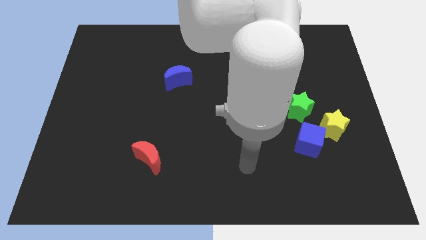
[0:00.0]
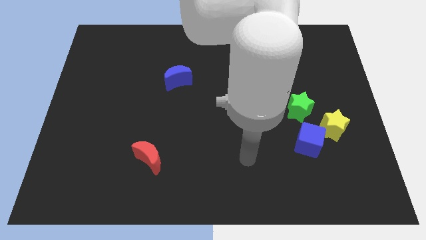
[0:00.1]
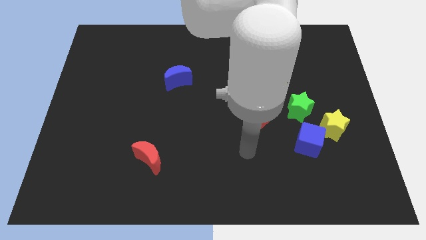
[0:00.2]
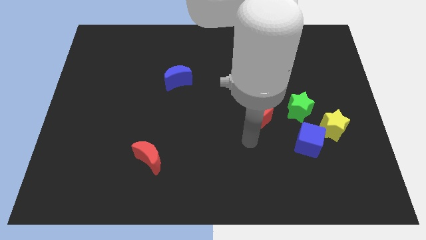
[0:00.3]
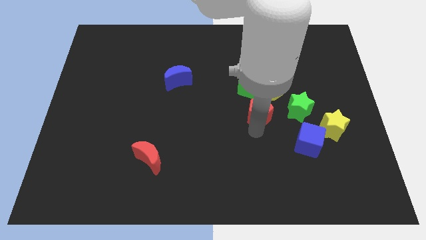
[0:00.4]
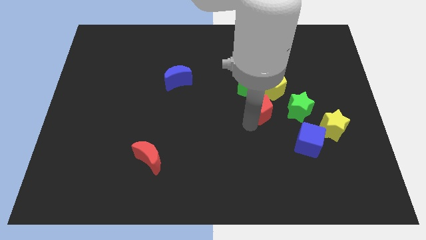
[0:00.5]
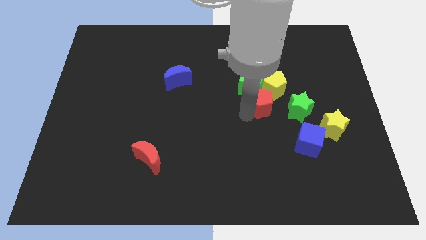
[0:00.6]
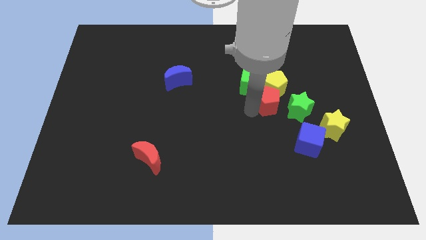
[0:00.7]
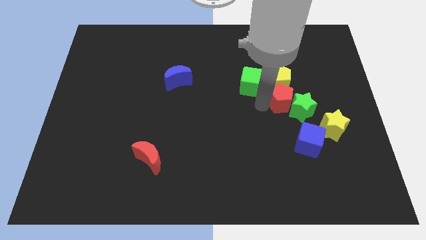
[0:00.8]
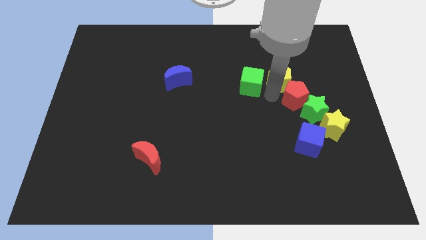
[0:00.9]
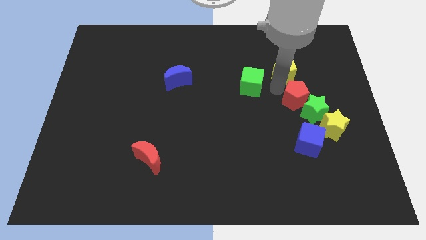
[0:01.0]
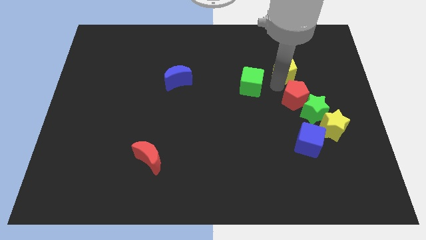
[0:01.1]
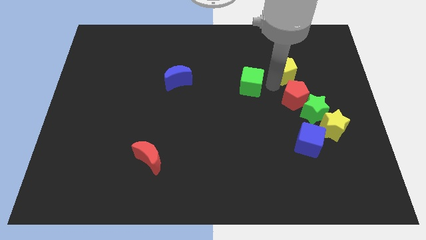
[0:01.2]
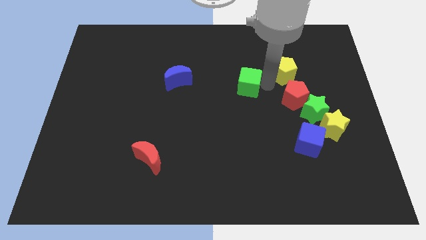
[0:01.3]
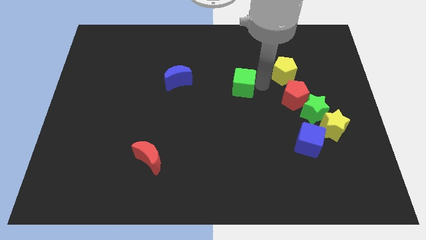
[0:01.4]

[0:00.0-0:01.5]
pull the green cube apart from the yellow pentagon and red pentagon

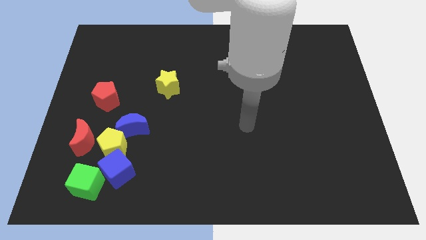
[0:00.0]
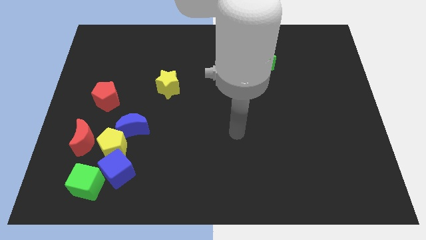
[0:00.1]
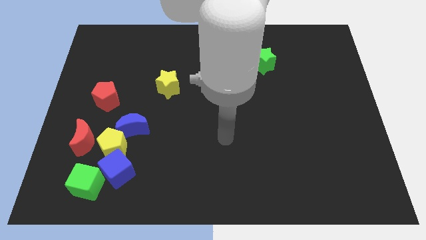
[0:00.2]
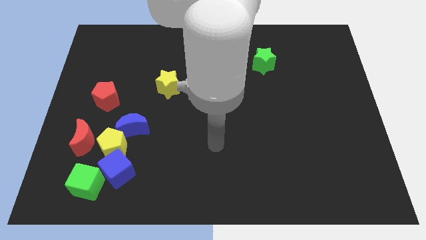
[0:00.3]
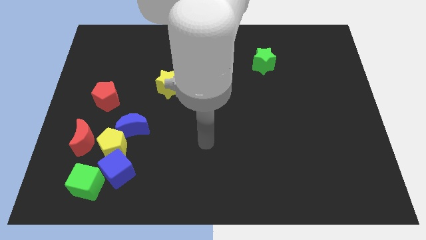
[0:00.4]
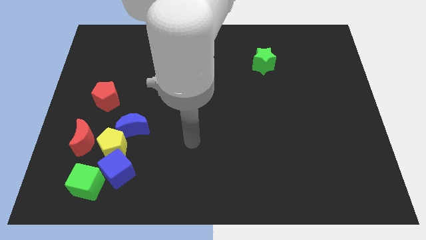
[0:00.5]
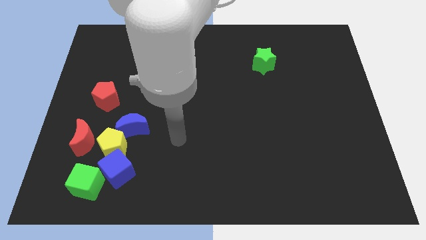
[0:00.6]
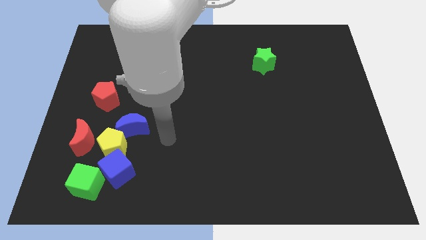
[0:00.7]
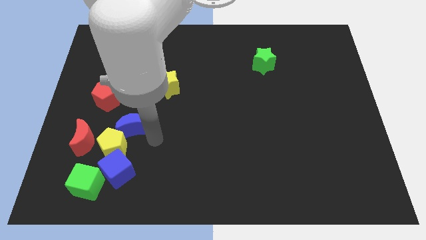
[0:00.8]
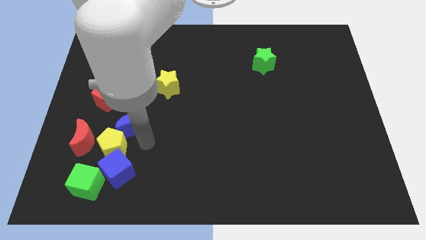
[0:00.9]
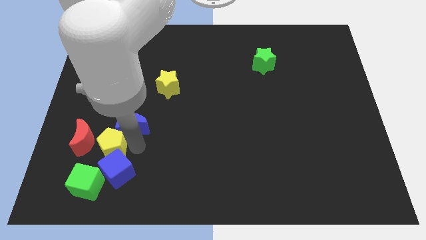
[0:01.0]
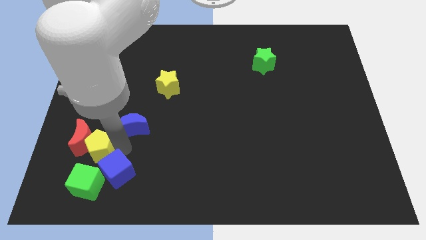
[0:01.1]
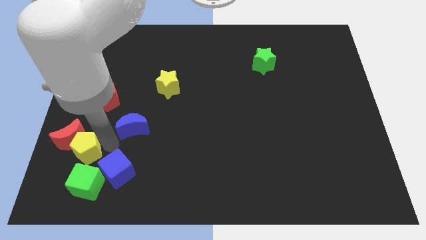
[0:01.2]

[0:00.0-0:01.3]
move the blue moon away from the yellow pentagon

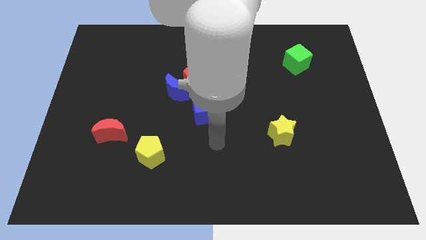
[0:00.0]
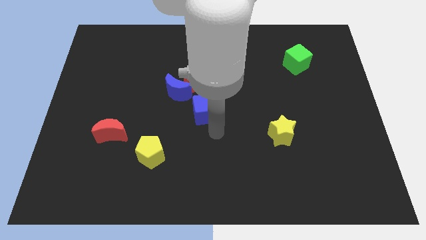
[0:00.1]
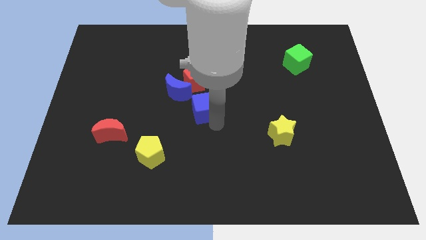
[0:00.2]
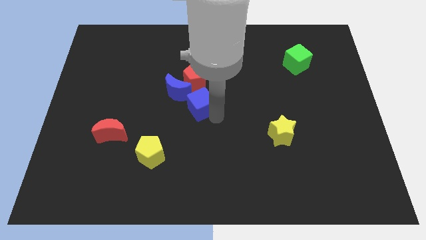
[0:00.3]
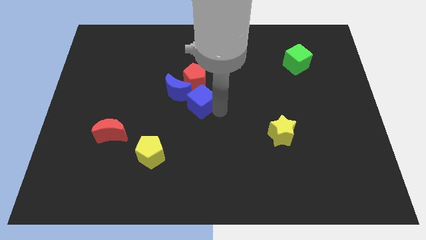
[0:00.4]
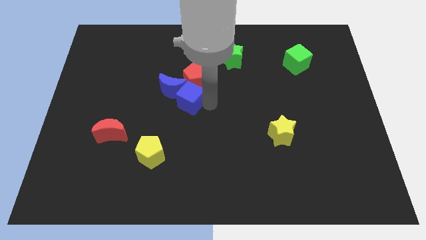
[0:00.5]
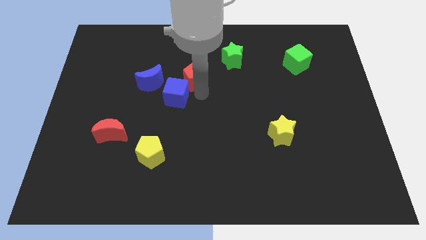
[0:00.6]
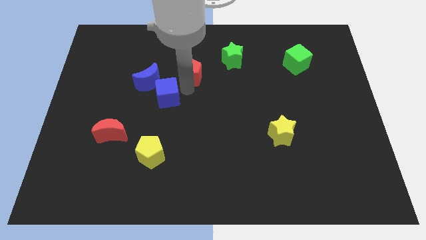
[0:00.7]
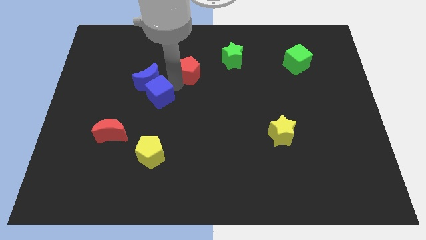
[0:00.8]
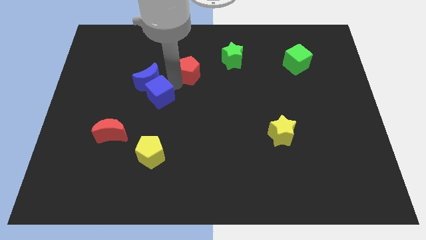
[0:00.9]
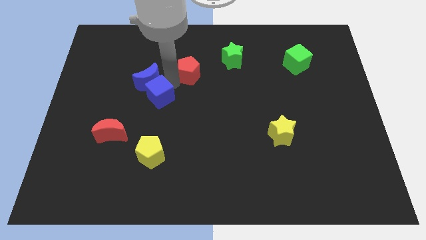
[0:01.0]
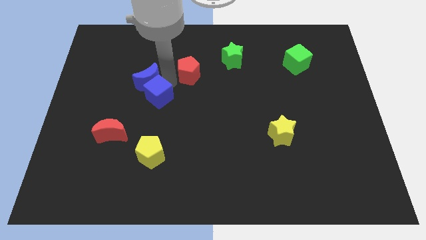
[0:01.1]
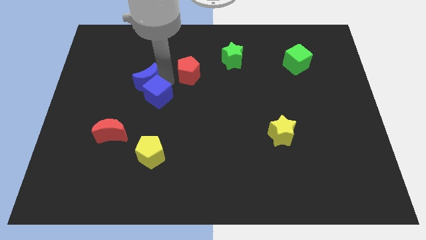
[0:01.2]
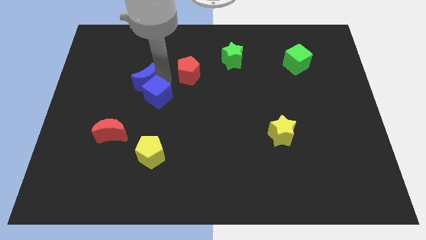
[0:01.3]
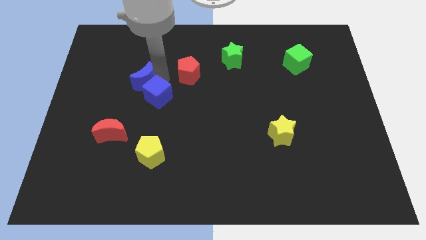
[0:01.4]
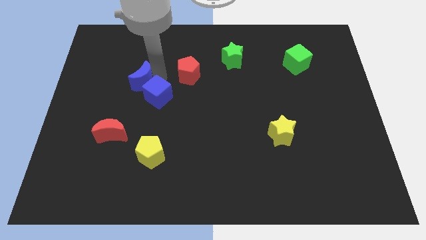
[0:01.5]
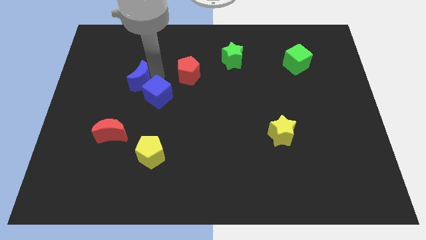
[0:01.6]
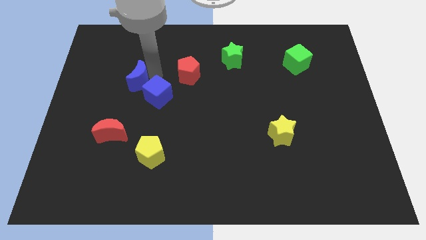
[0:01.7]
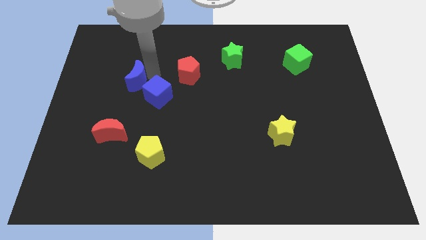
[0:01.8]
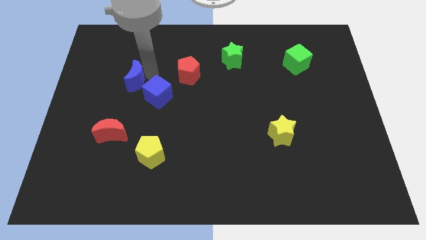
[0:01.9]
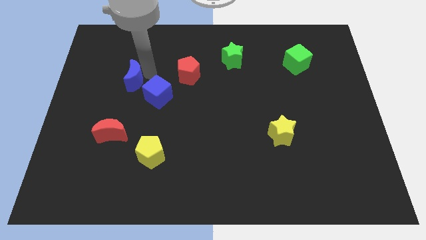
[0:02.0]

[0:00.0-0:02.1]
separate the blue moon from the red pentagon and blue cube

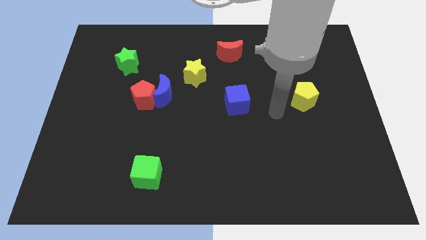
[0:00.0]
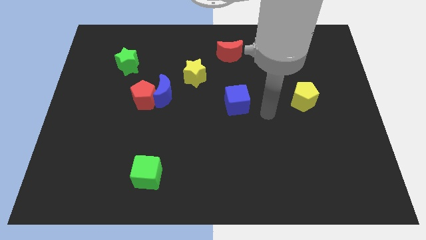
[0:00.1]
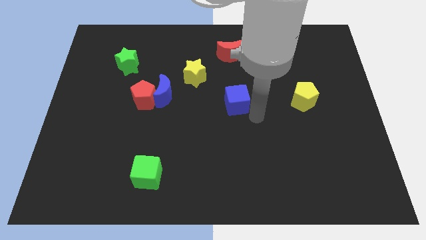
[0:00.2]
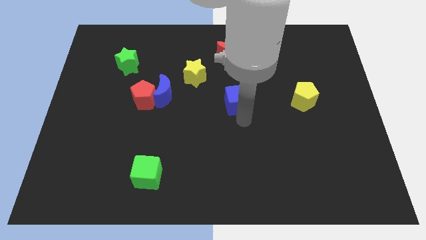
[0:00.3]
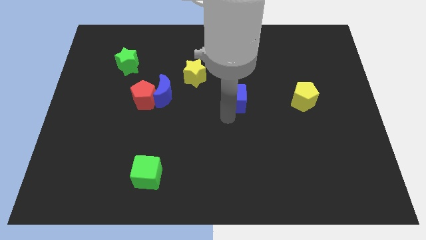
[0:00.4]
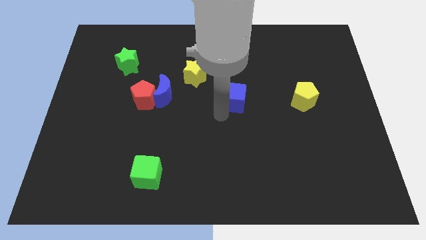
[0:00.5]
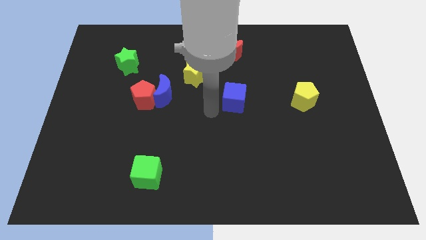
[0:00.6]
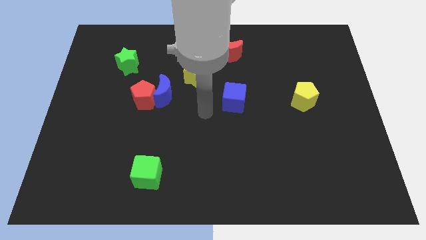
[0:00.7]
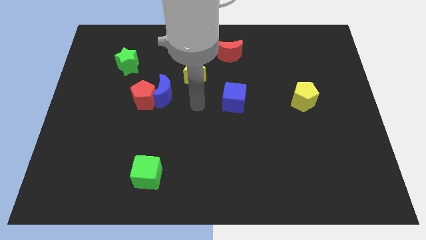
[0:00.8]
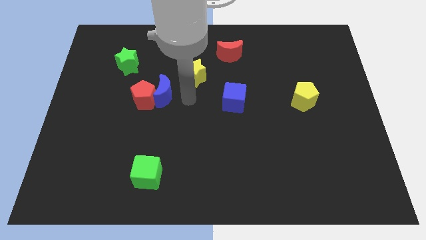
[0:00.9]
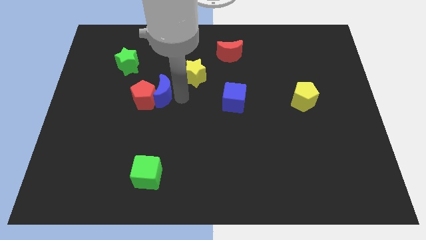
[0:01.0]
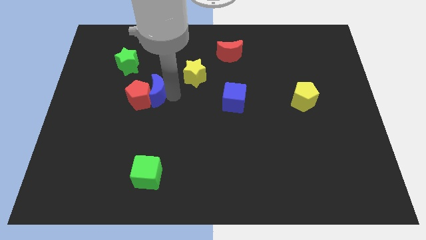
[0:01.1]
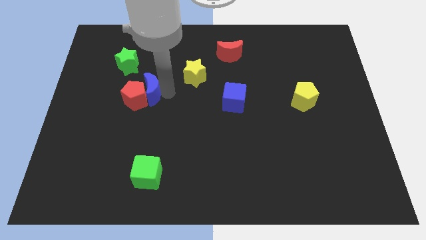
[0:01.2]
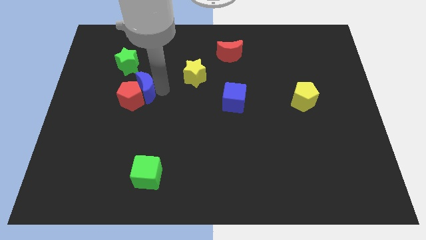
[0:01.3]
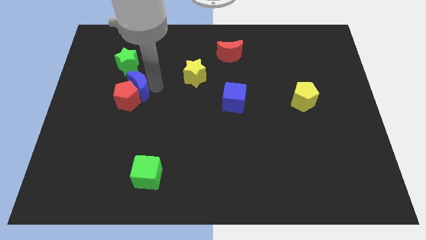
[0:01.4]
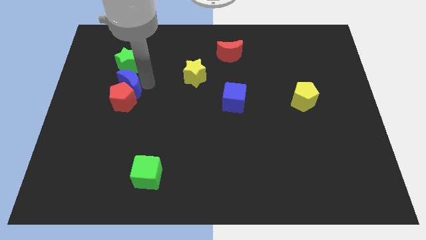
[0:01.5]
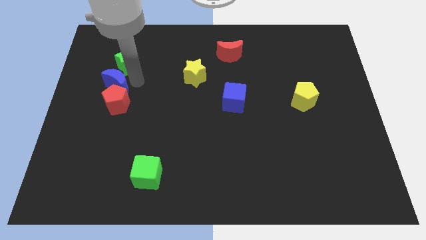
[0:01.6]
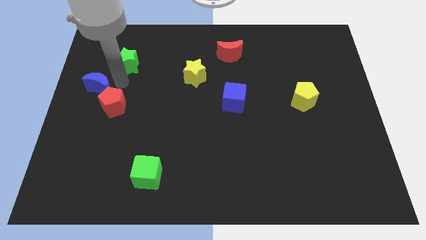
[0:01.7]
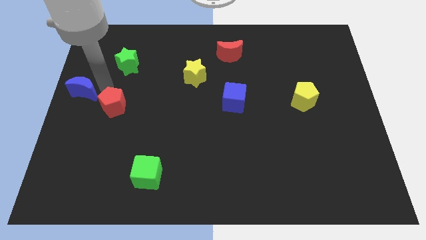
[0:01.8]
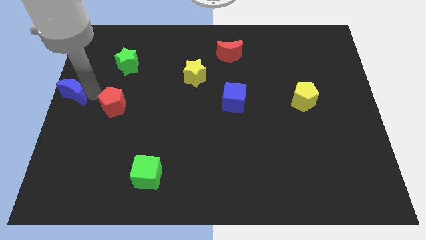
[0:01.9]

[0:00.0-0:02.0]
separate the red pentagon from the blue moon

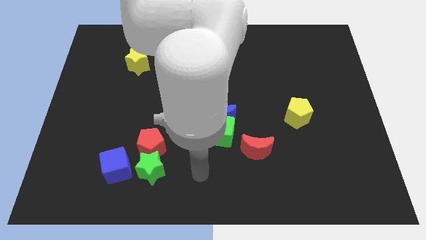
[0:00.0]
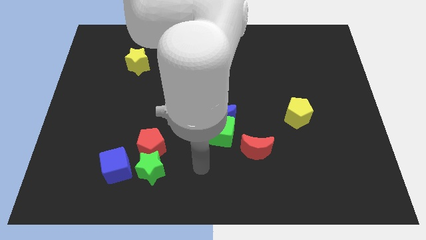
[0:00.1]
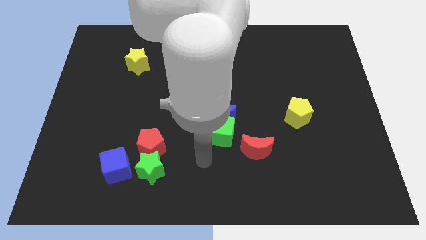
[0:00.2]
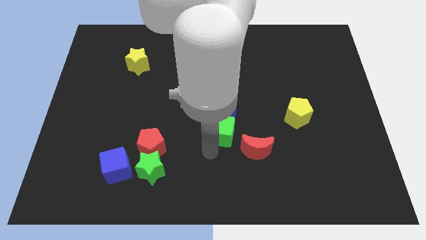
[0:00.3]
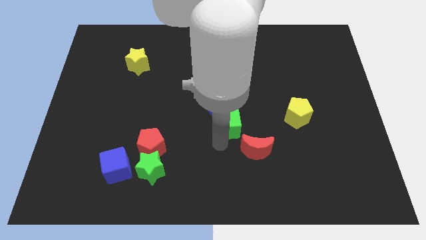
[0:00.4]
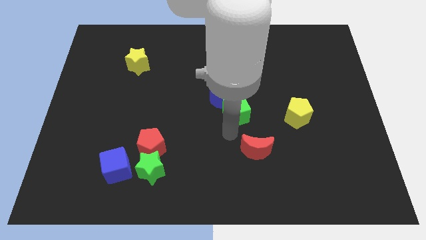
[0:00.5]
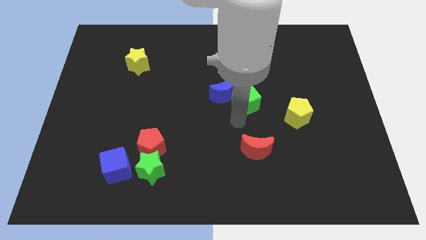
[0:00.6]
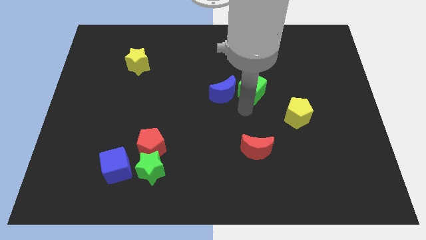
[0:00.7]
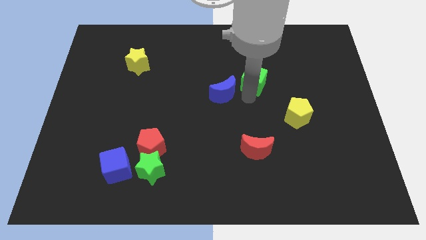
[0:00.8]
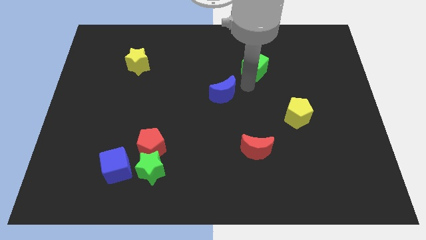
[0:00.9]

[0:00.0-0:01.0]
separate the blue moon from the green cube

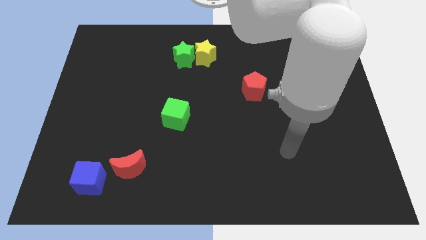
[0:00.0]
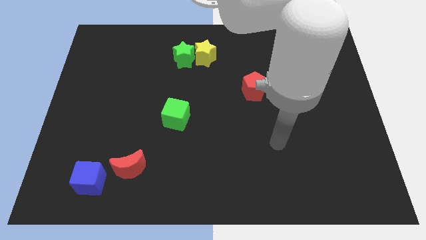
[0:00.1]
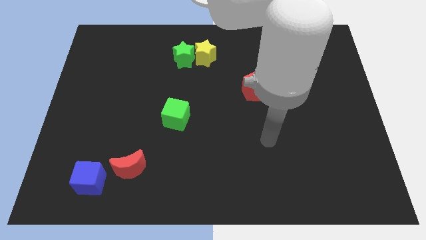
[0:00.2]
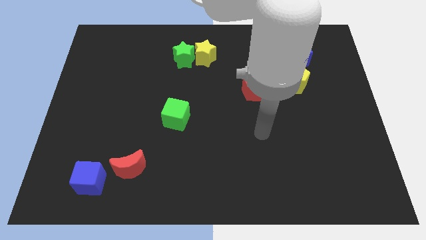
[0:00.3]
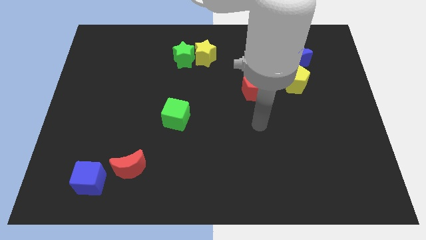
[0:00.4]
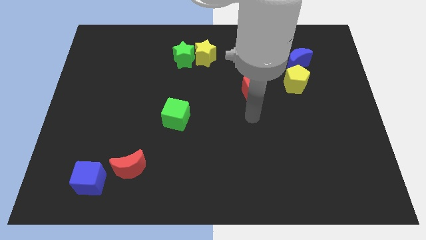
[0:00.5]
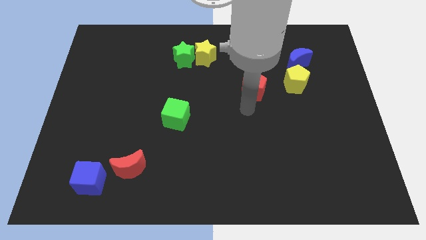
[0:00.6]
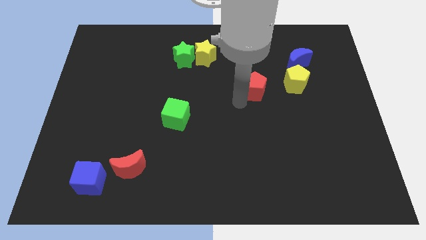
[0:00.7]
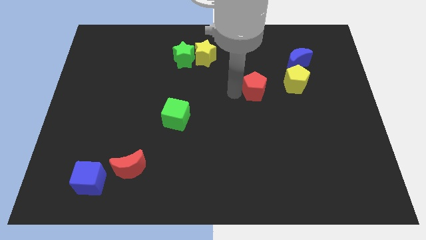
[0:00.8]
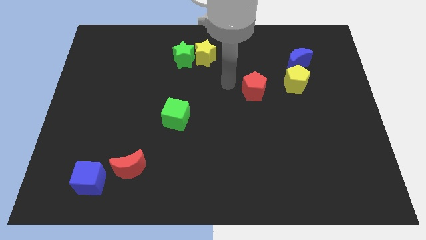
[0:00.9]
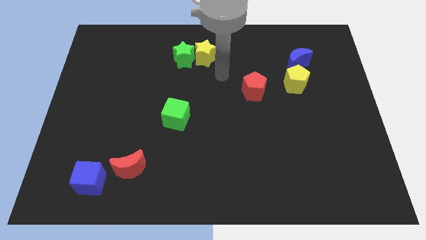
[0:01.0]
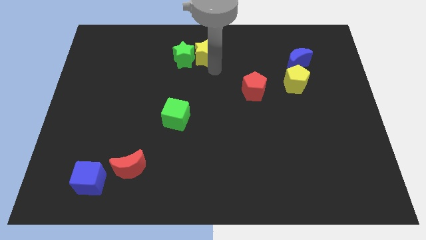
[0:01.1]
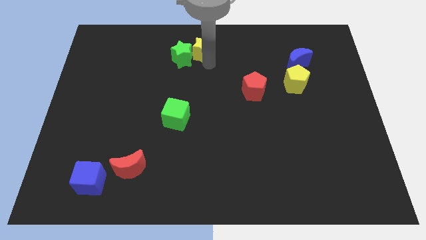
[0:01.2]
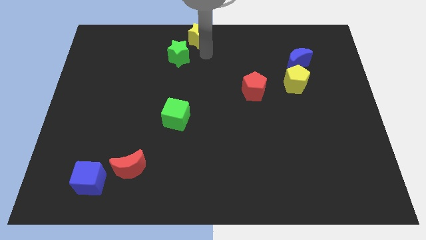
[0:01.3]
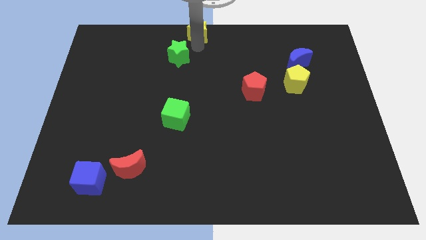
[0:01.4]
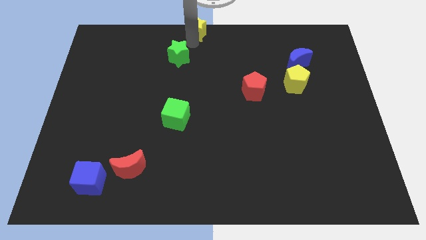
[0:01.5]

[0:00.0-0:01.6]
pull the green star apart from the yellow star
